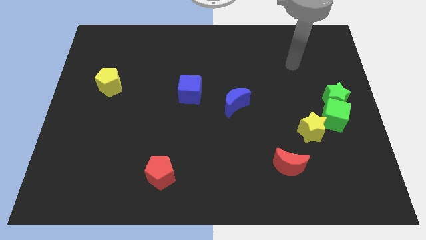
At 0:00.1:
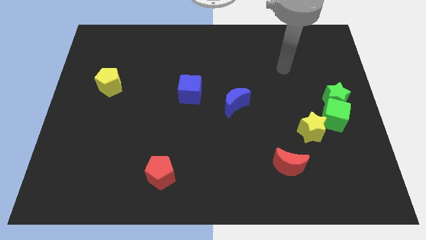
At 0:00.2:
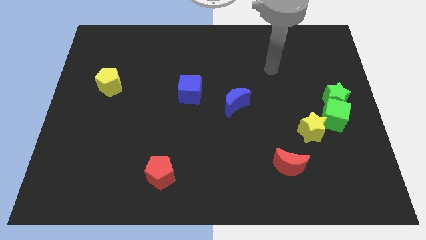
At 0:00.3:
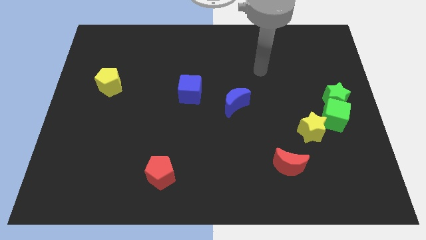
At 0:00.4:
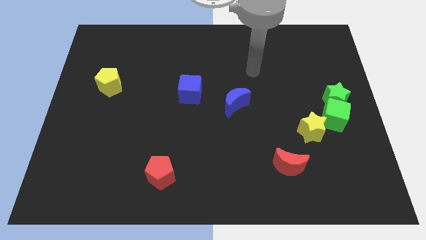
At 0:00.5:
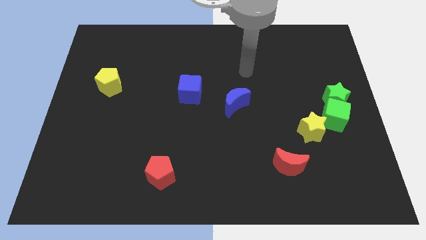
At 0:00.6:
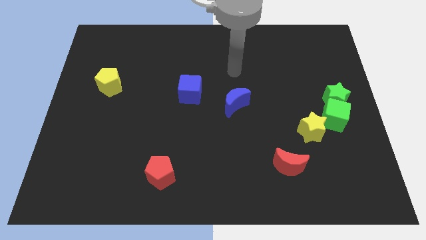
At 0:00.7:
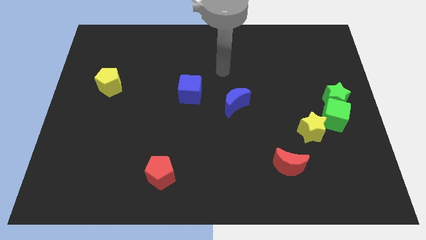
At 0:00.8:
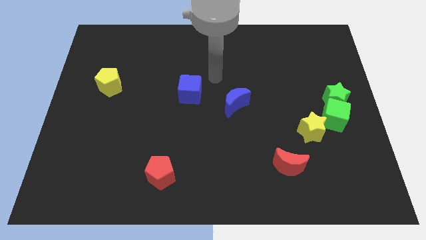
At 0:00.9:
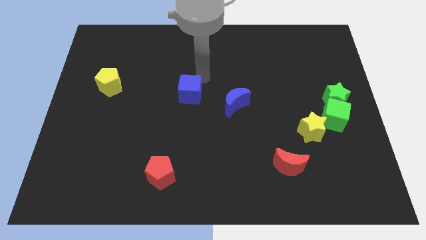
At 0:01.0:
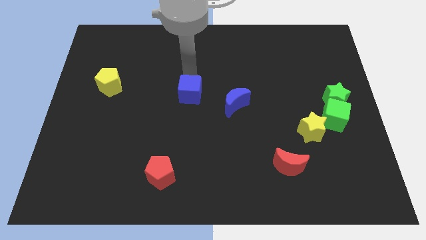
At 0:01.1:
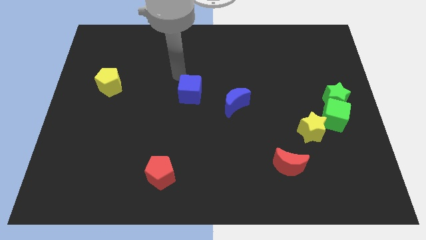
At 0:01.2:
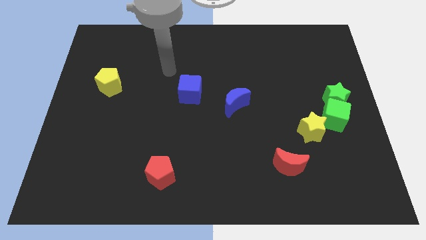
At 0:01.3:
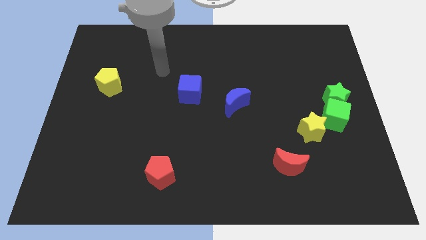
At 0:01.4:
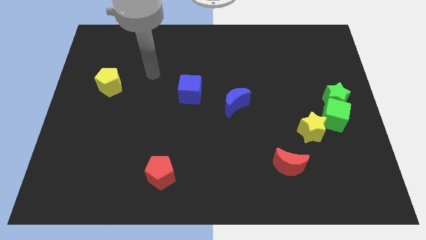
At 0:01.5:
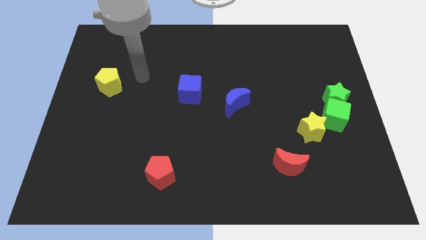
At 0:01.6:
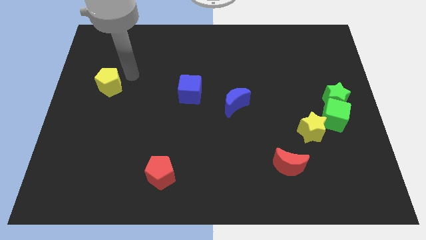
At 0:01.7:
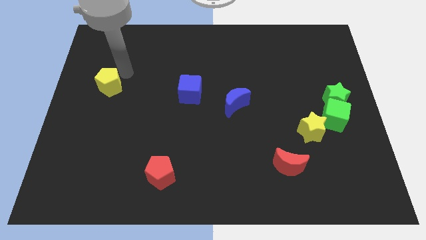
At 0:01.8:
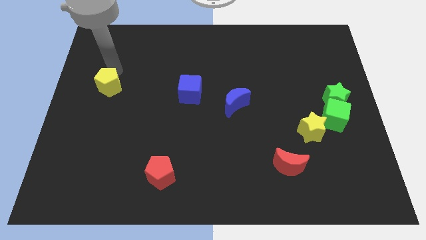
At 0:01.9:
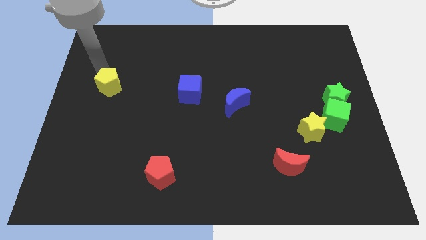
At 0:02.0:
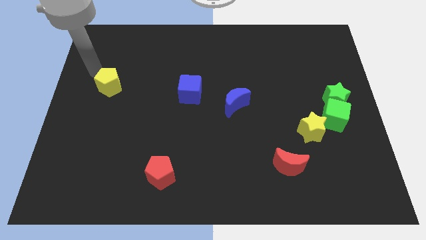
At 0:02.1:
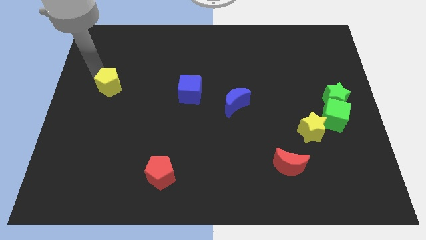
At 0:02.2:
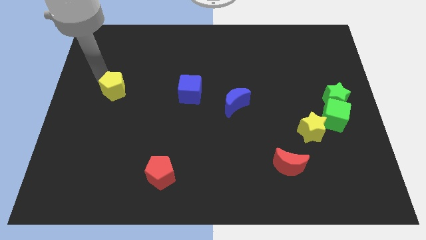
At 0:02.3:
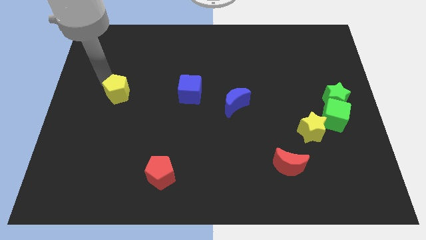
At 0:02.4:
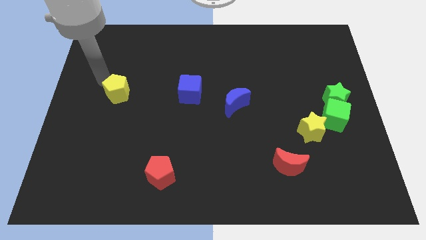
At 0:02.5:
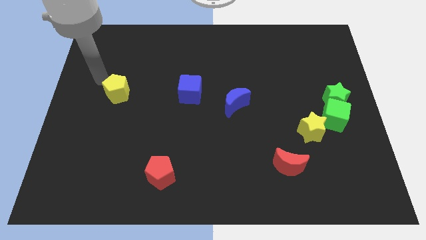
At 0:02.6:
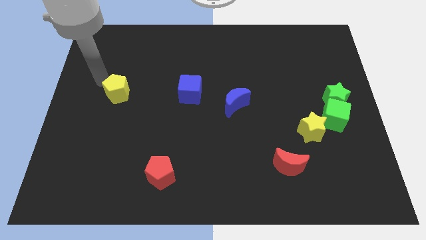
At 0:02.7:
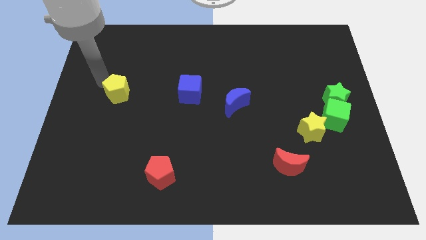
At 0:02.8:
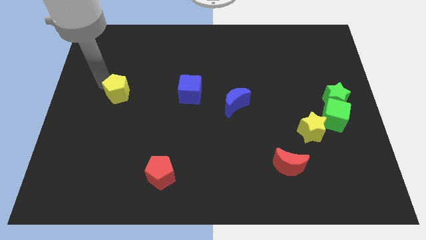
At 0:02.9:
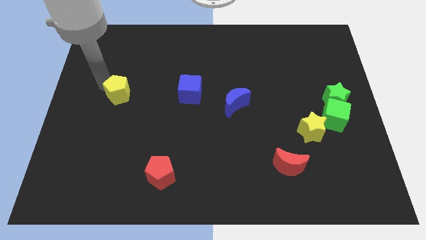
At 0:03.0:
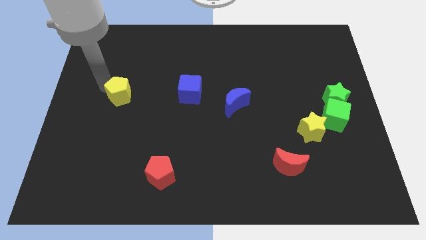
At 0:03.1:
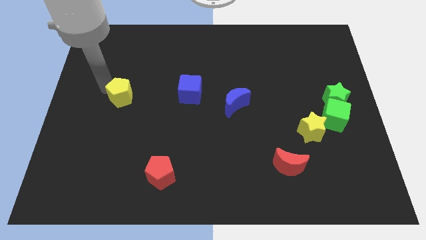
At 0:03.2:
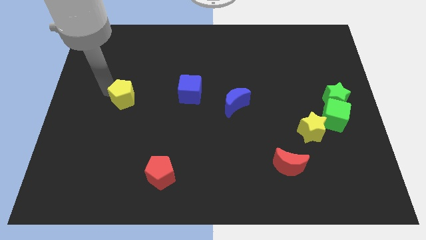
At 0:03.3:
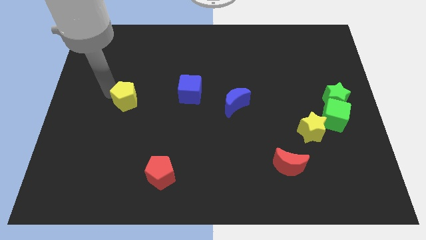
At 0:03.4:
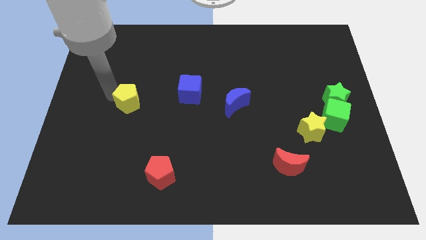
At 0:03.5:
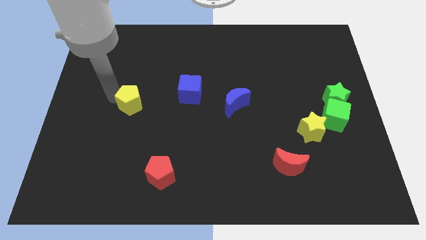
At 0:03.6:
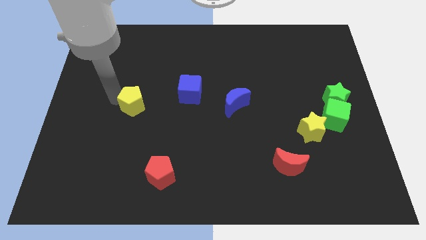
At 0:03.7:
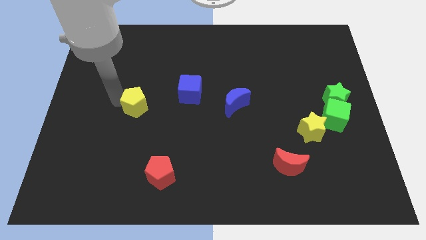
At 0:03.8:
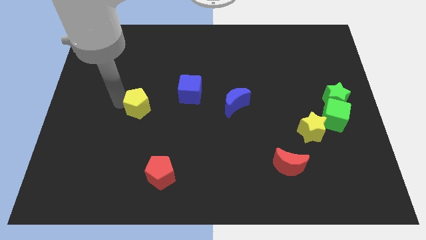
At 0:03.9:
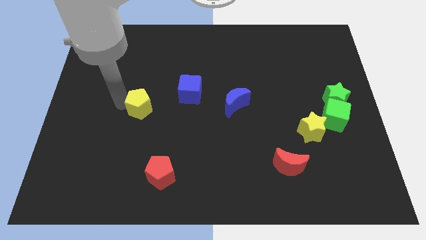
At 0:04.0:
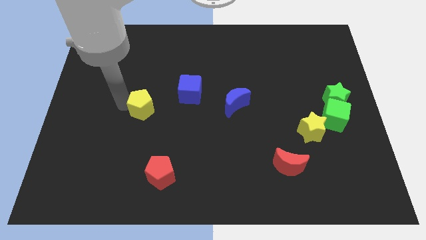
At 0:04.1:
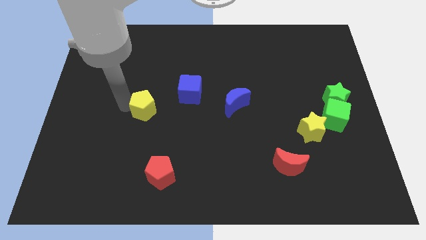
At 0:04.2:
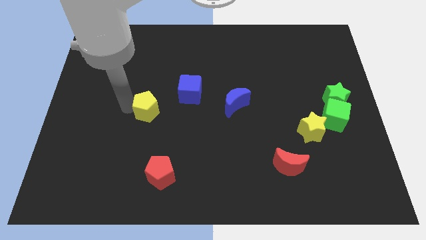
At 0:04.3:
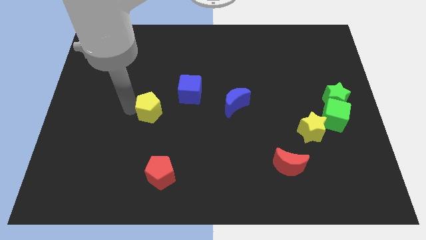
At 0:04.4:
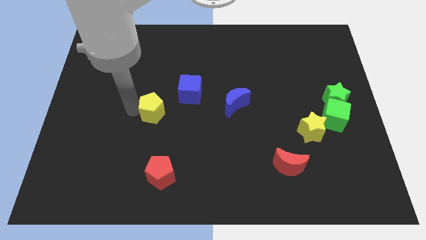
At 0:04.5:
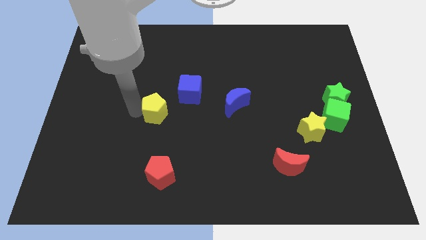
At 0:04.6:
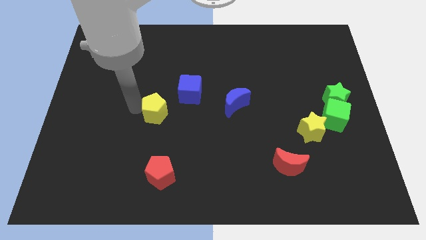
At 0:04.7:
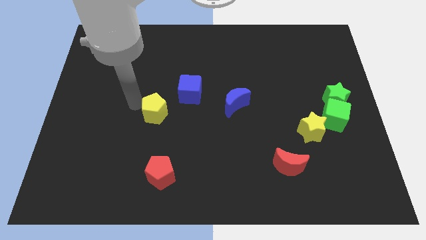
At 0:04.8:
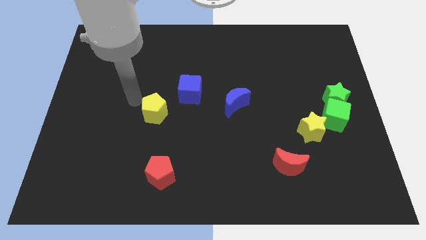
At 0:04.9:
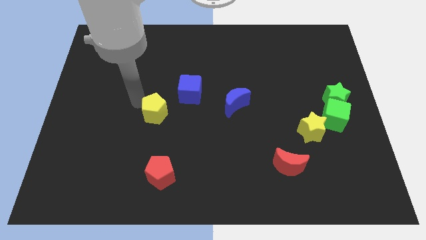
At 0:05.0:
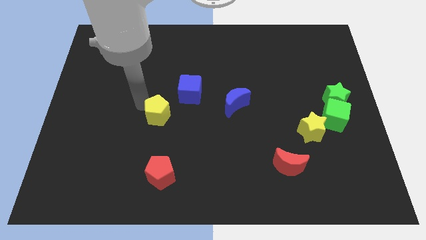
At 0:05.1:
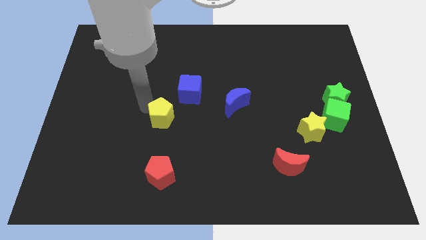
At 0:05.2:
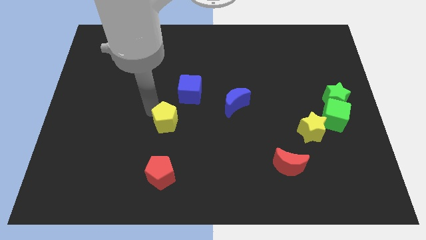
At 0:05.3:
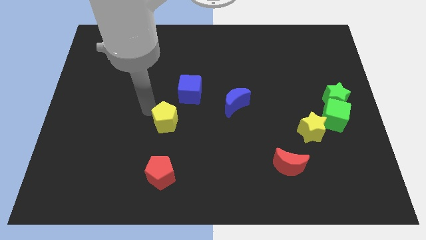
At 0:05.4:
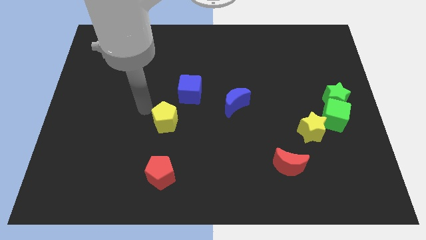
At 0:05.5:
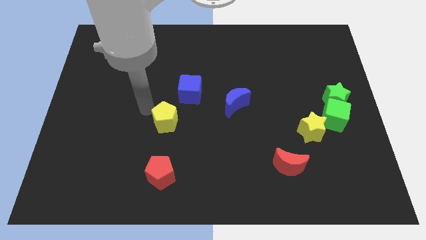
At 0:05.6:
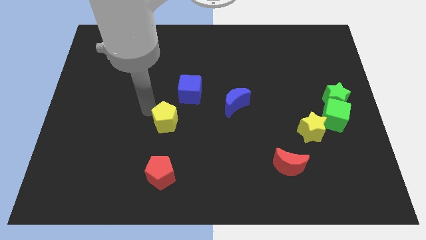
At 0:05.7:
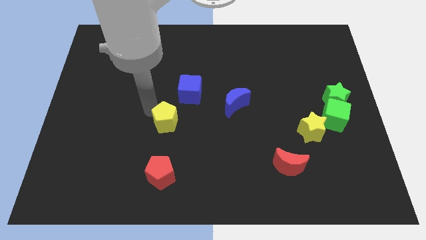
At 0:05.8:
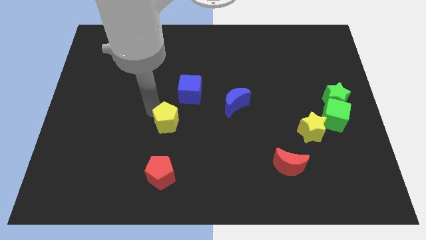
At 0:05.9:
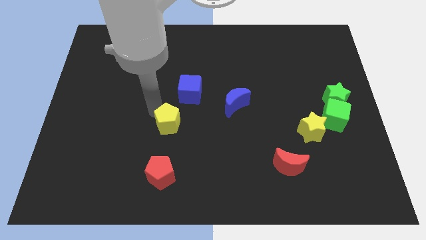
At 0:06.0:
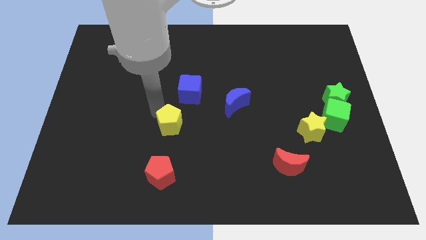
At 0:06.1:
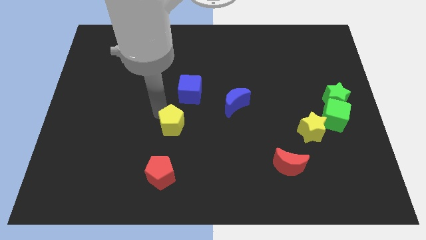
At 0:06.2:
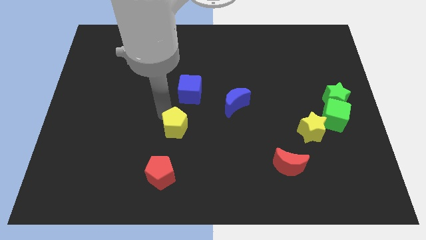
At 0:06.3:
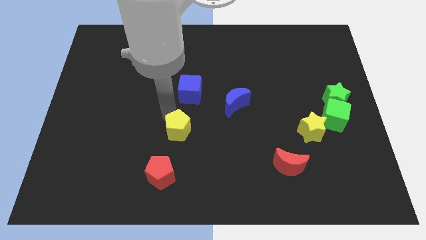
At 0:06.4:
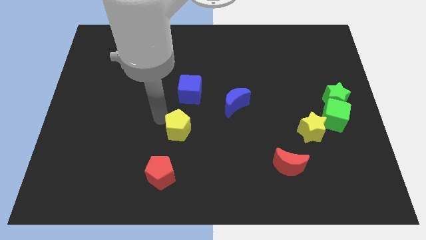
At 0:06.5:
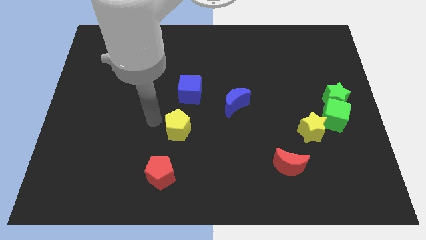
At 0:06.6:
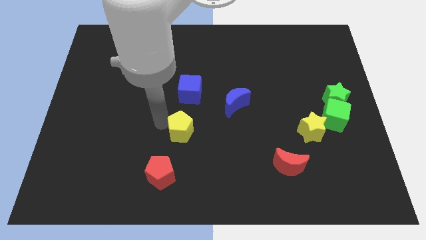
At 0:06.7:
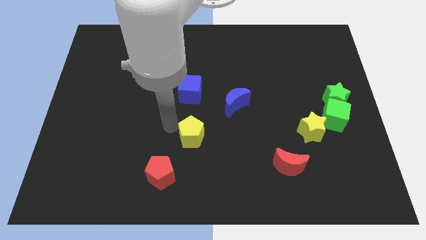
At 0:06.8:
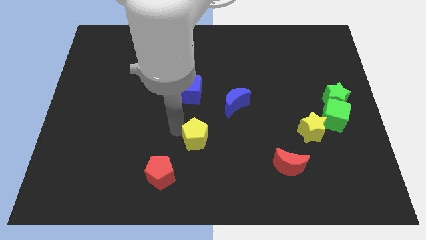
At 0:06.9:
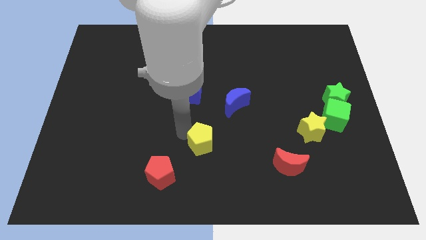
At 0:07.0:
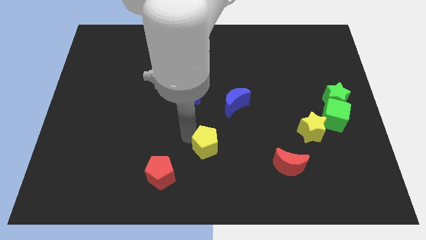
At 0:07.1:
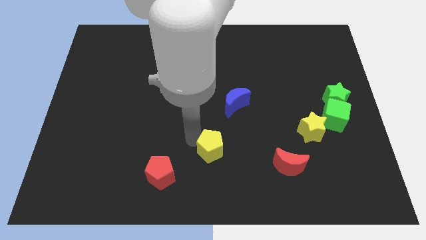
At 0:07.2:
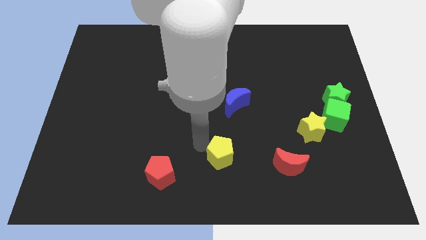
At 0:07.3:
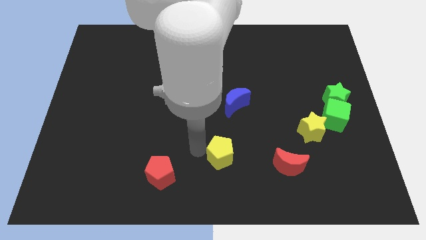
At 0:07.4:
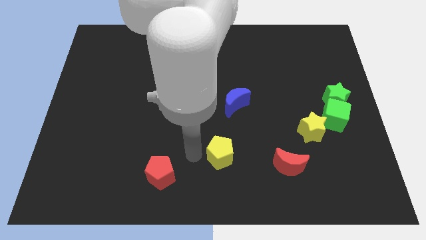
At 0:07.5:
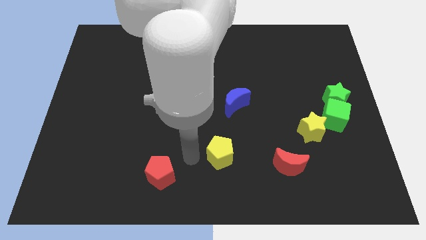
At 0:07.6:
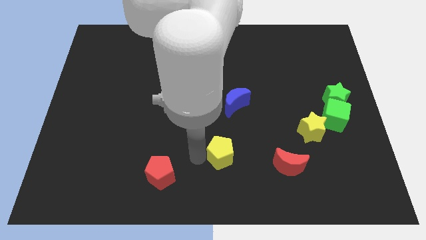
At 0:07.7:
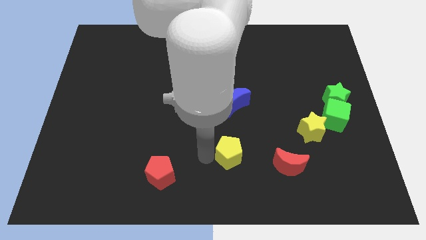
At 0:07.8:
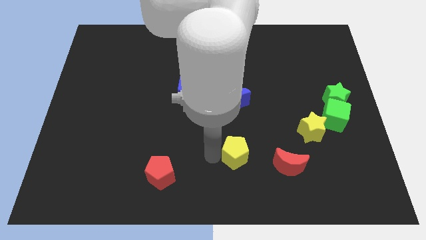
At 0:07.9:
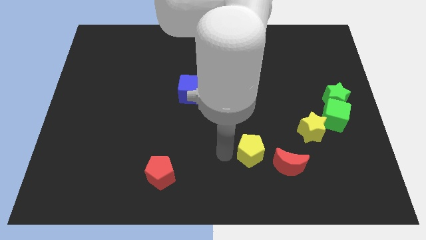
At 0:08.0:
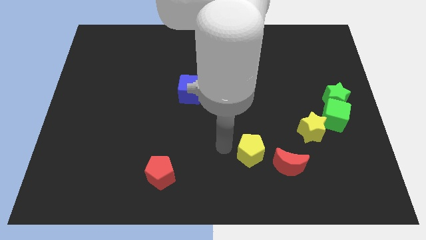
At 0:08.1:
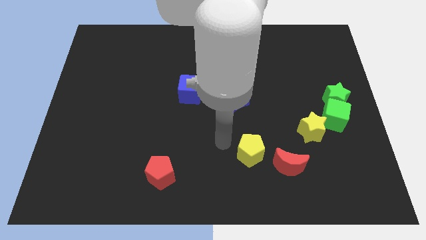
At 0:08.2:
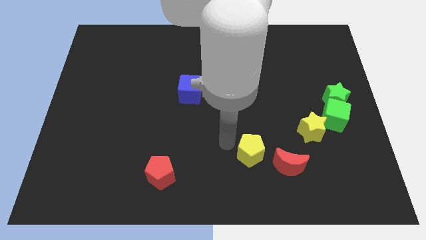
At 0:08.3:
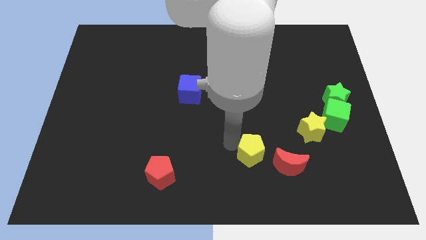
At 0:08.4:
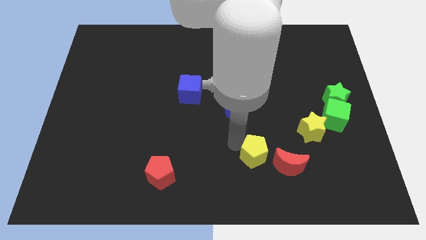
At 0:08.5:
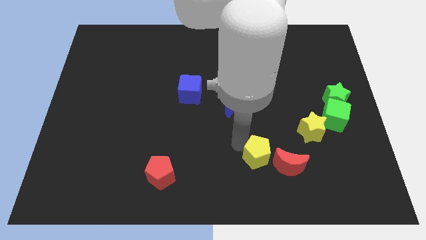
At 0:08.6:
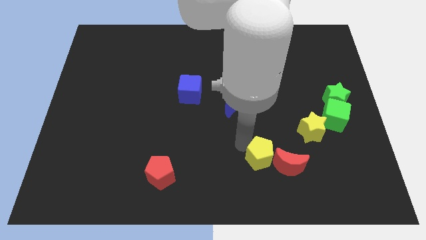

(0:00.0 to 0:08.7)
push the yellow pentagon close to the red moon
